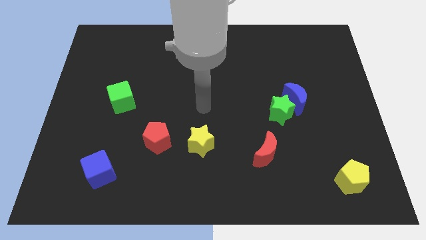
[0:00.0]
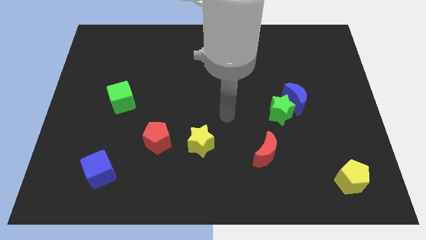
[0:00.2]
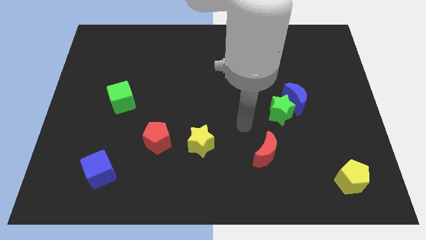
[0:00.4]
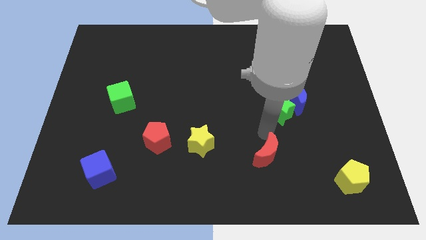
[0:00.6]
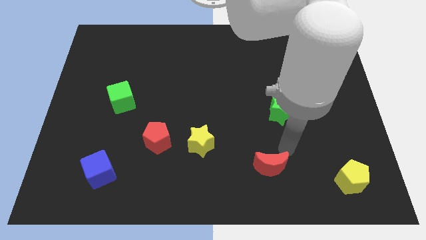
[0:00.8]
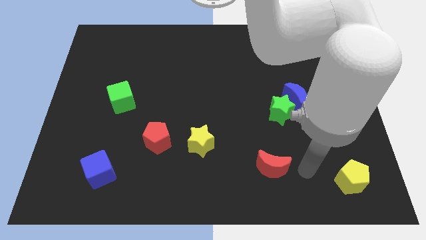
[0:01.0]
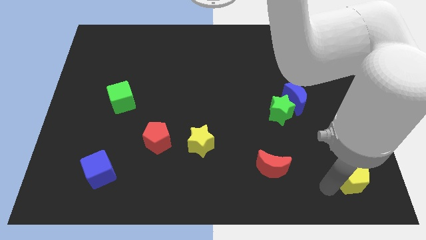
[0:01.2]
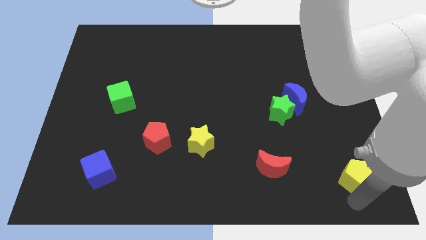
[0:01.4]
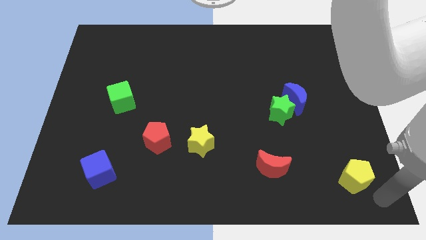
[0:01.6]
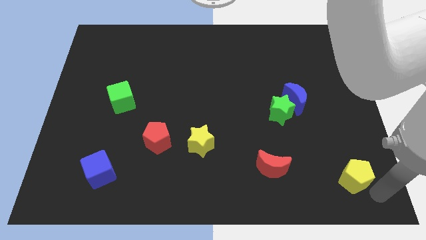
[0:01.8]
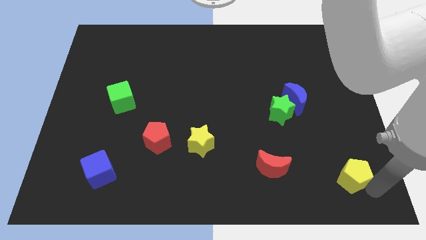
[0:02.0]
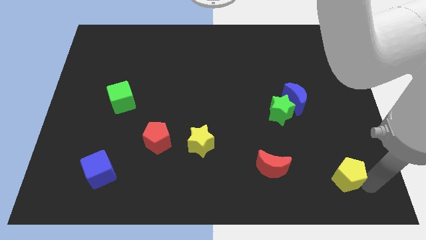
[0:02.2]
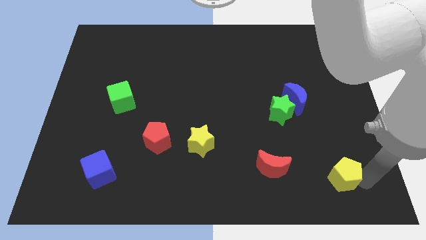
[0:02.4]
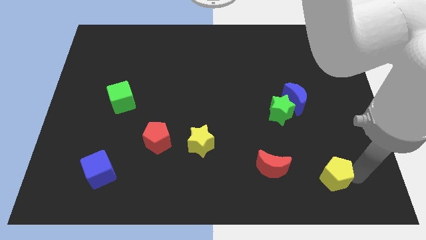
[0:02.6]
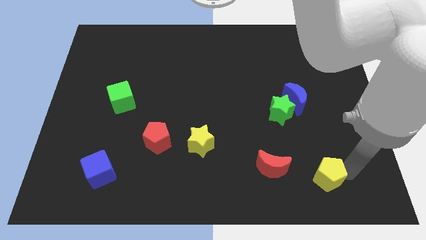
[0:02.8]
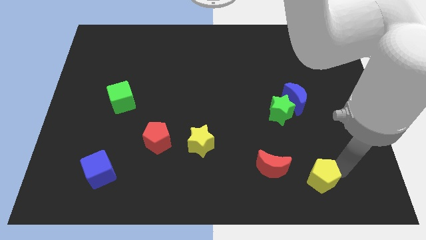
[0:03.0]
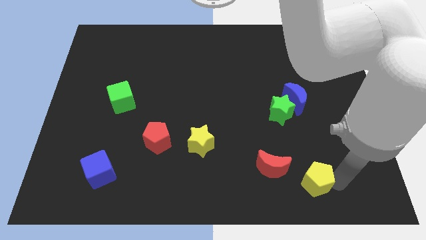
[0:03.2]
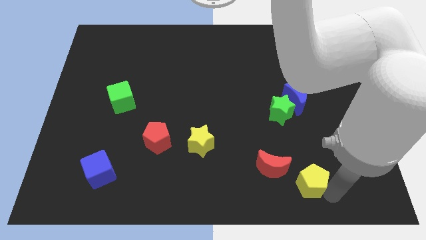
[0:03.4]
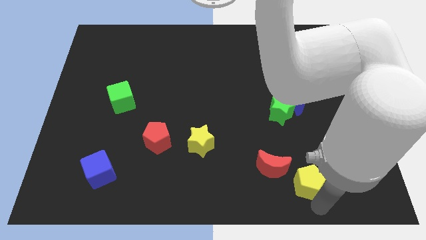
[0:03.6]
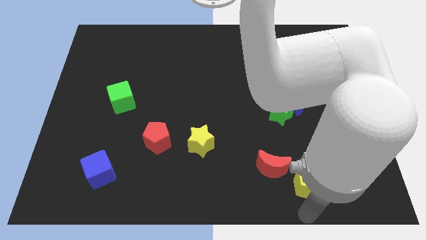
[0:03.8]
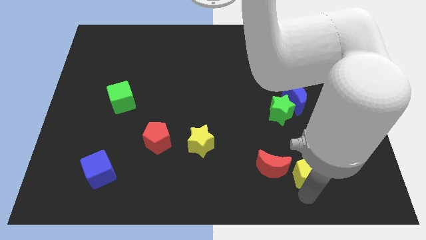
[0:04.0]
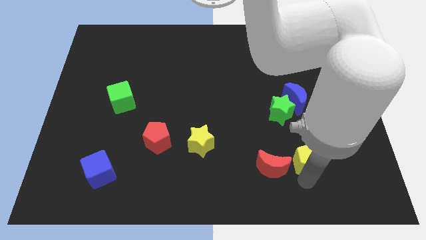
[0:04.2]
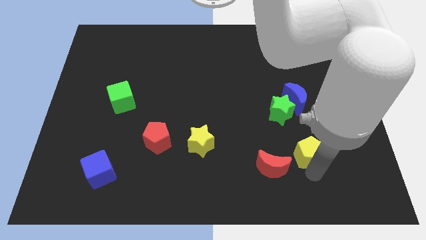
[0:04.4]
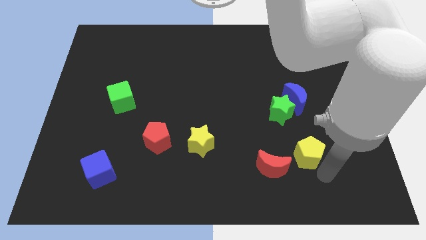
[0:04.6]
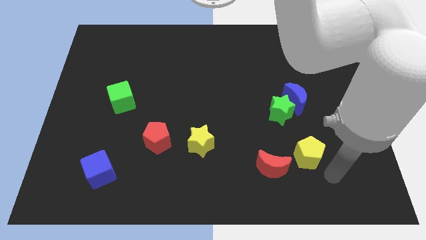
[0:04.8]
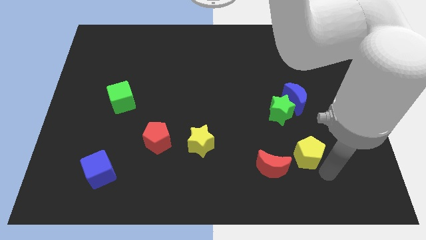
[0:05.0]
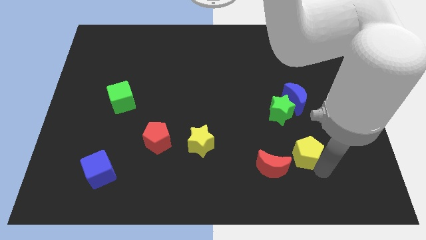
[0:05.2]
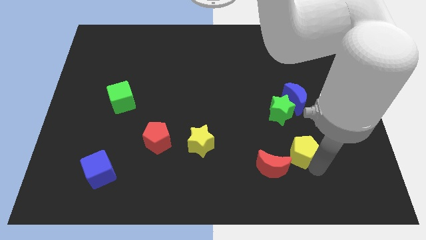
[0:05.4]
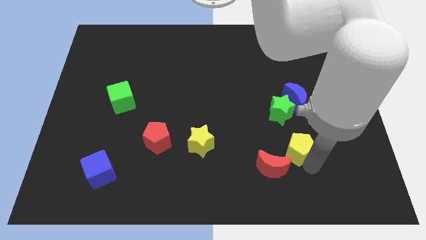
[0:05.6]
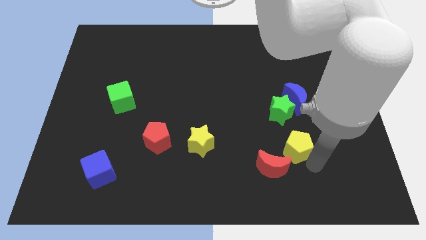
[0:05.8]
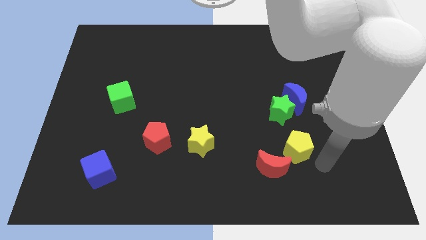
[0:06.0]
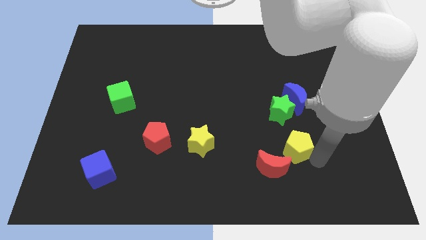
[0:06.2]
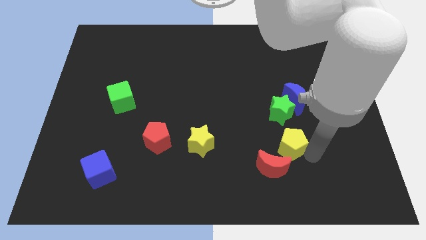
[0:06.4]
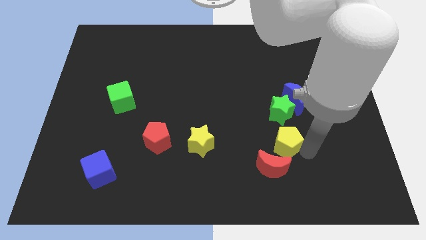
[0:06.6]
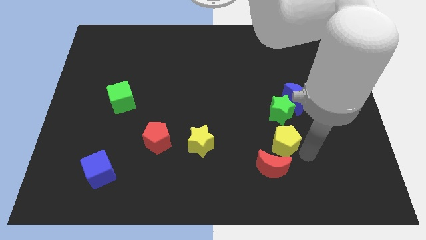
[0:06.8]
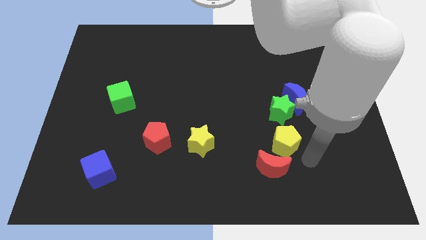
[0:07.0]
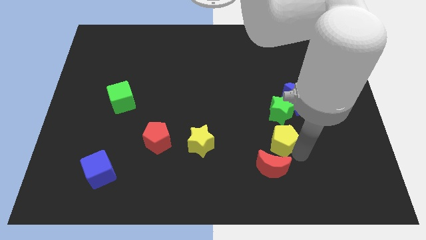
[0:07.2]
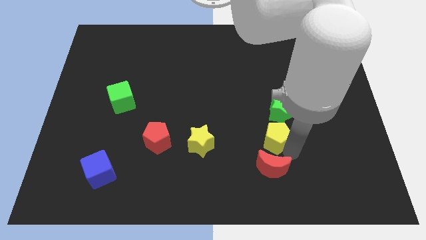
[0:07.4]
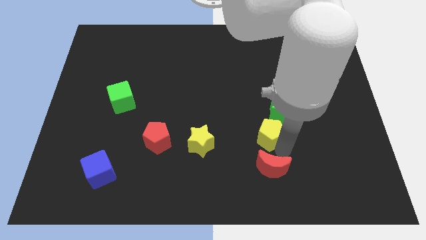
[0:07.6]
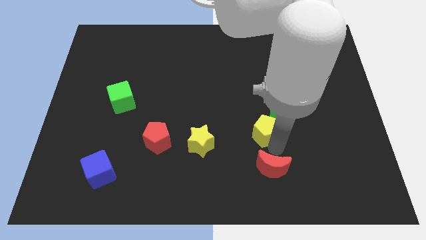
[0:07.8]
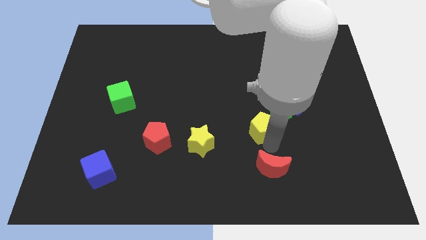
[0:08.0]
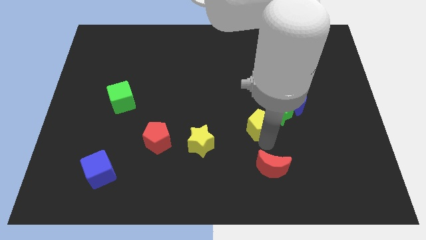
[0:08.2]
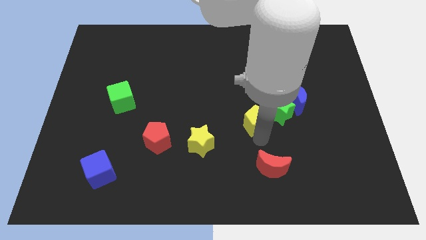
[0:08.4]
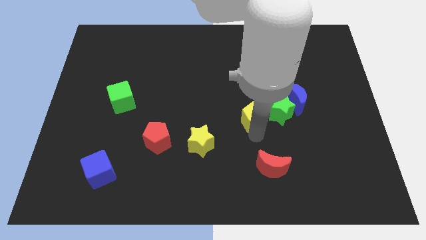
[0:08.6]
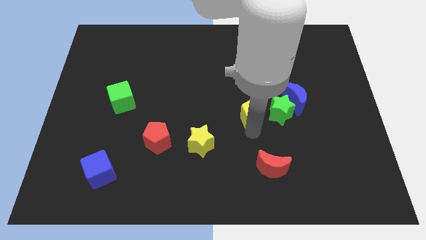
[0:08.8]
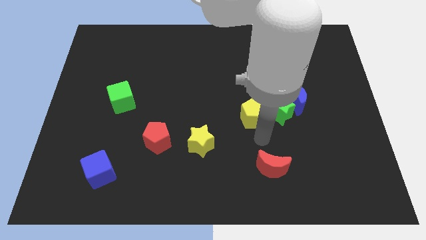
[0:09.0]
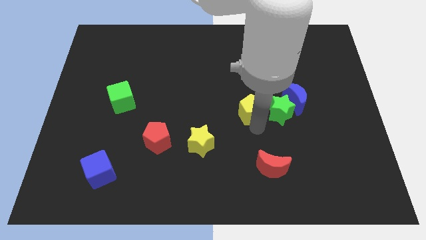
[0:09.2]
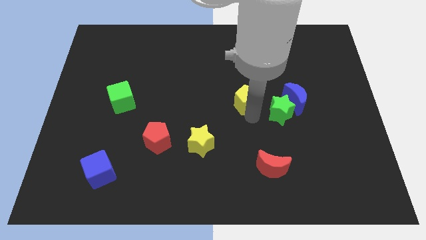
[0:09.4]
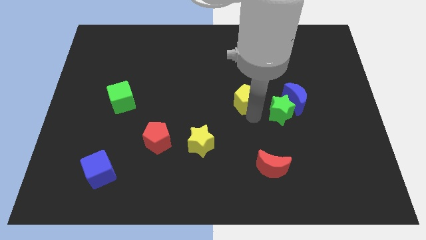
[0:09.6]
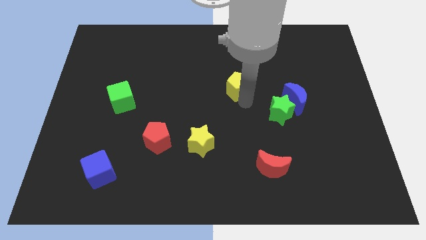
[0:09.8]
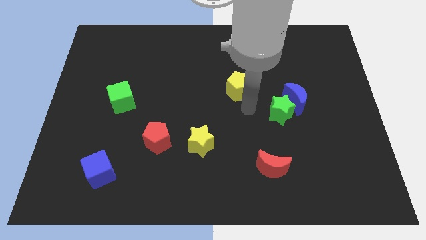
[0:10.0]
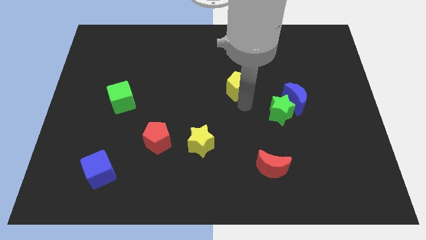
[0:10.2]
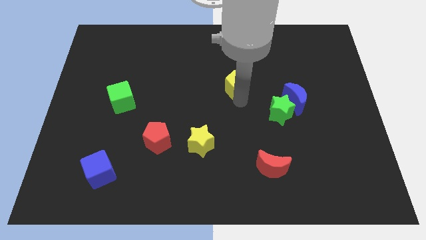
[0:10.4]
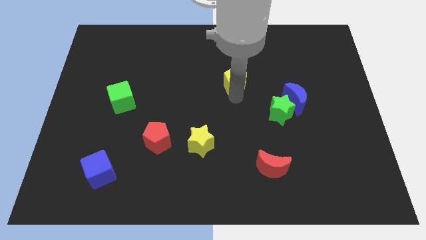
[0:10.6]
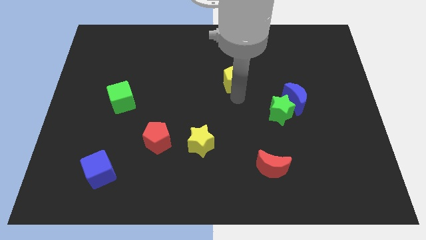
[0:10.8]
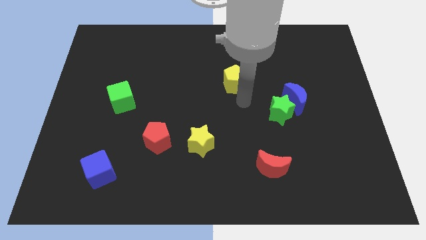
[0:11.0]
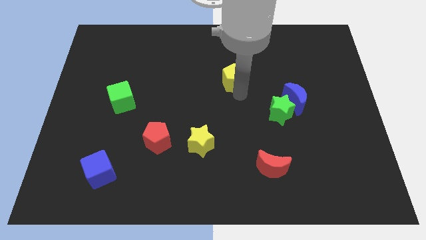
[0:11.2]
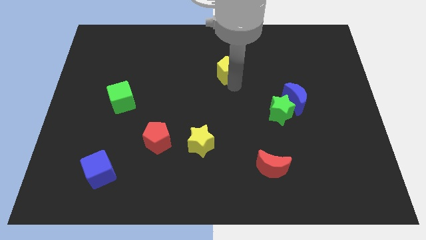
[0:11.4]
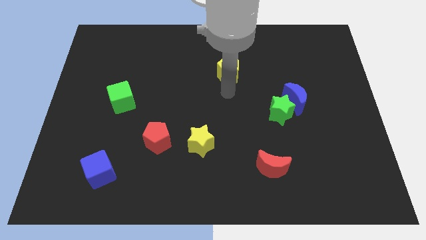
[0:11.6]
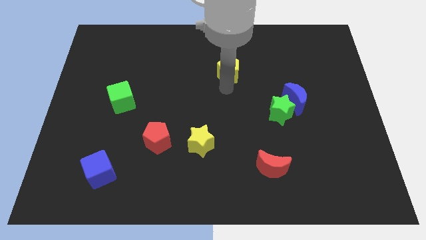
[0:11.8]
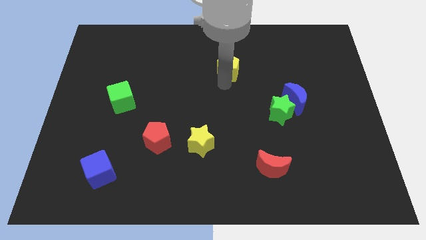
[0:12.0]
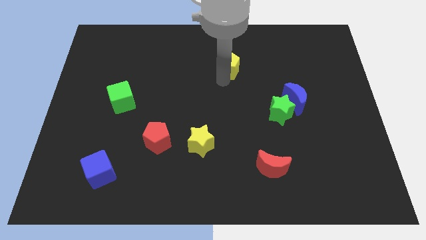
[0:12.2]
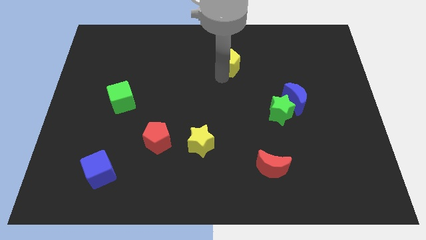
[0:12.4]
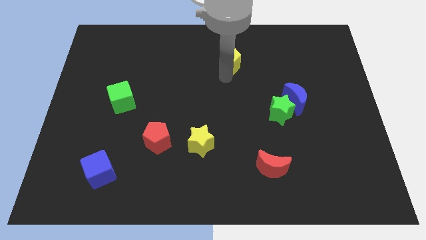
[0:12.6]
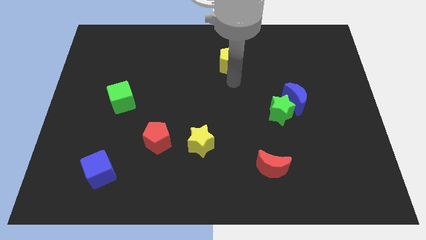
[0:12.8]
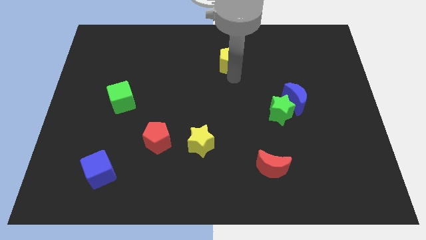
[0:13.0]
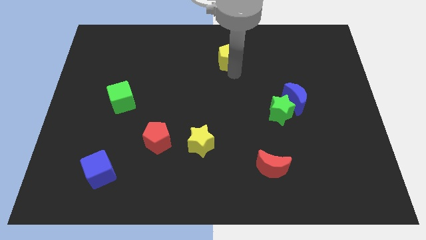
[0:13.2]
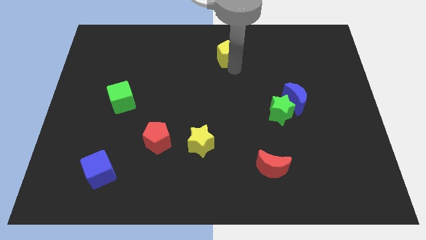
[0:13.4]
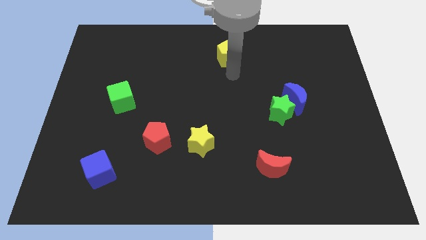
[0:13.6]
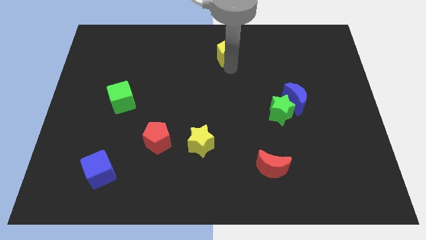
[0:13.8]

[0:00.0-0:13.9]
push the yellow pentagon to the top
